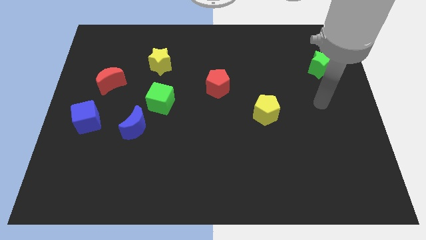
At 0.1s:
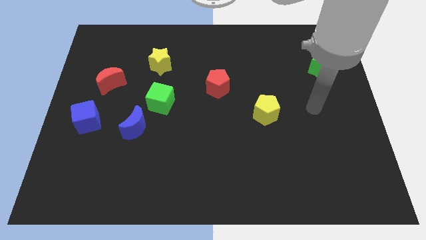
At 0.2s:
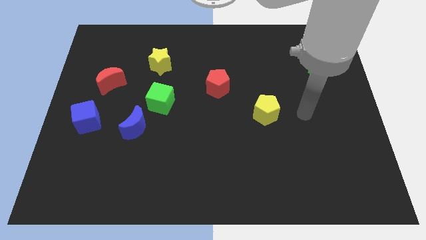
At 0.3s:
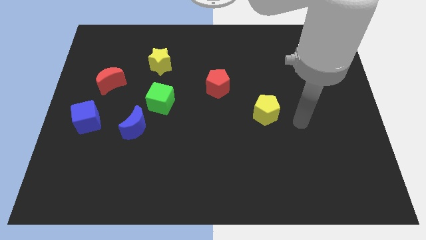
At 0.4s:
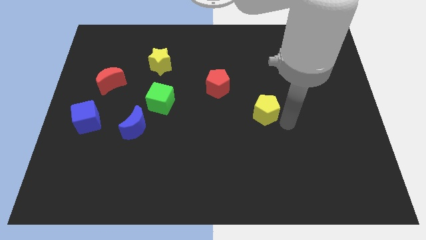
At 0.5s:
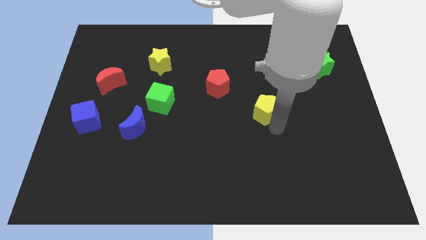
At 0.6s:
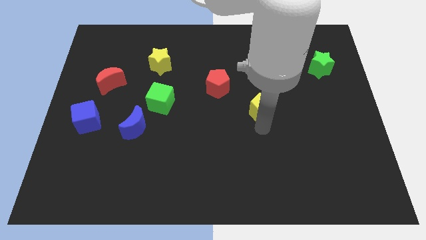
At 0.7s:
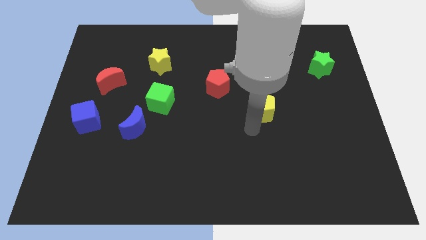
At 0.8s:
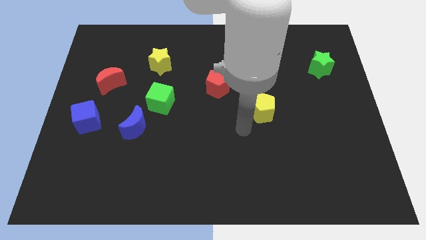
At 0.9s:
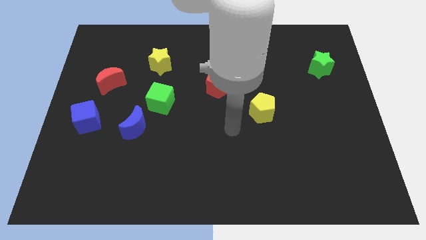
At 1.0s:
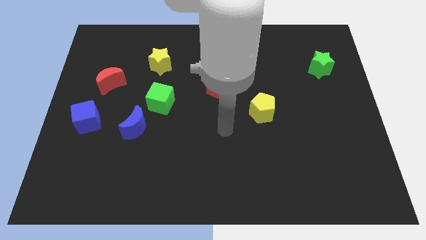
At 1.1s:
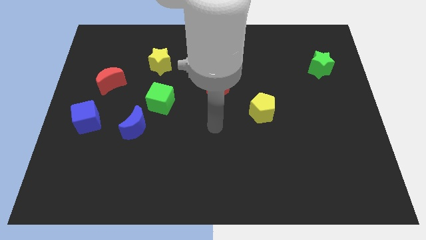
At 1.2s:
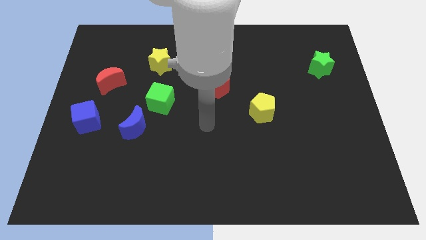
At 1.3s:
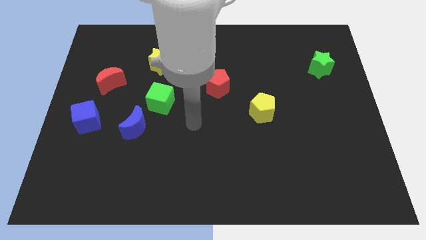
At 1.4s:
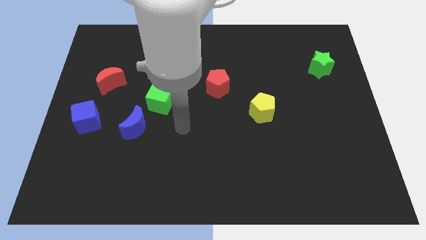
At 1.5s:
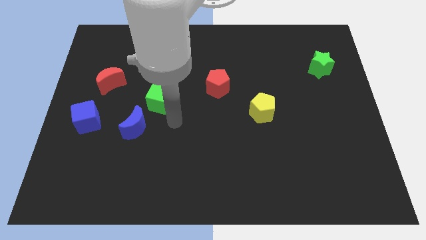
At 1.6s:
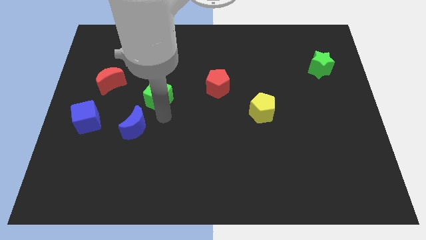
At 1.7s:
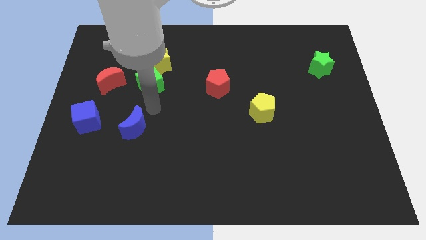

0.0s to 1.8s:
move the blue moon away from the green cube

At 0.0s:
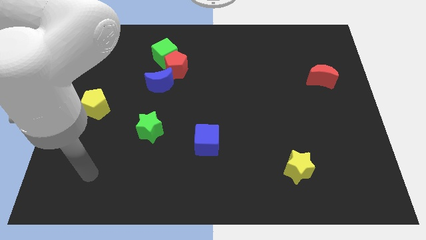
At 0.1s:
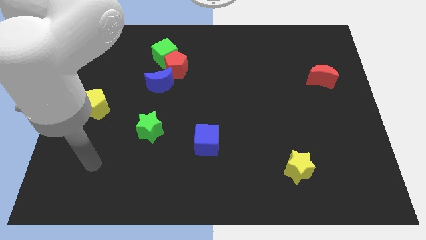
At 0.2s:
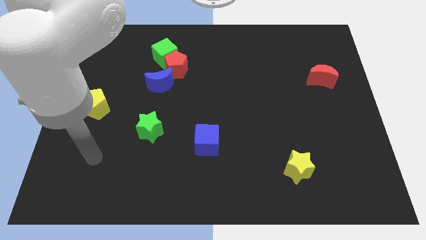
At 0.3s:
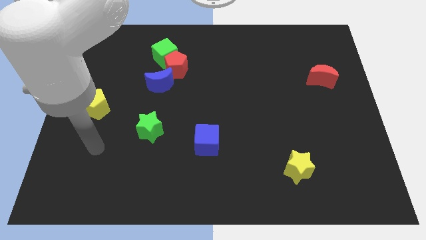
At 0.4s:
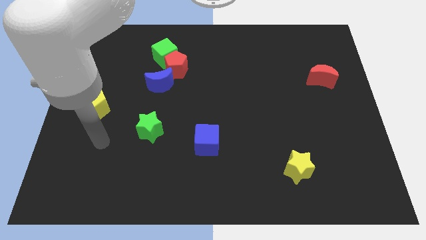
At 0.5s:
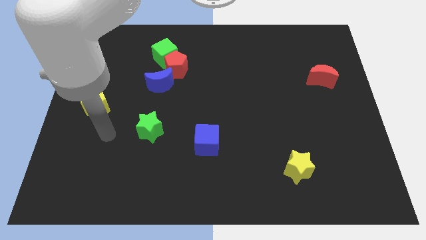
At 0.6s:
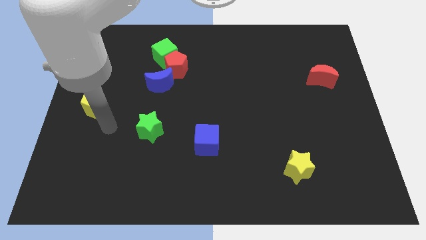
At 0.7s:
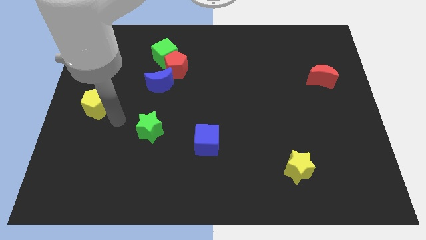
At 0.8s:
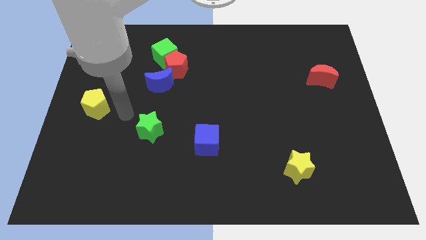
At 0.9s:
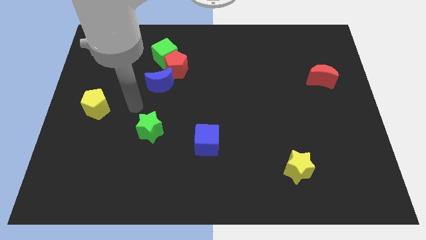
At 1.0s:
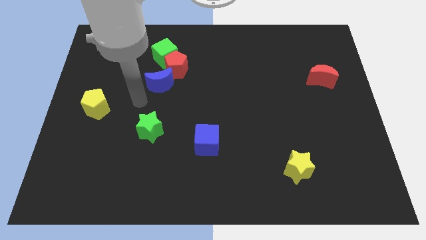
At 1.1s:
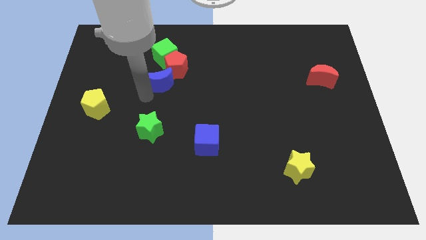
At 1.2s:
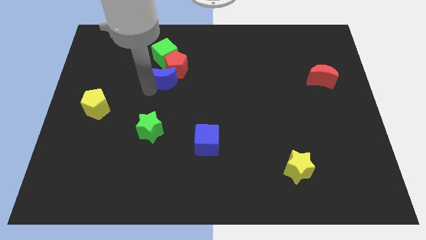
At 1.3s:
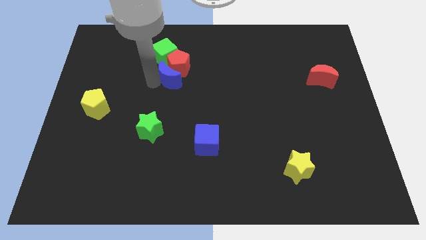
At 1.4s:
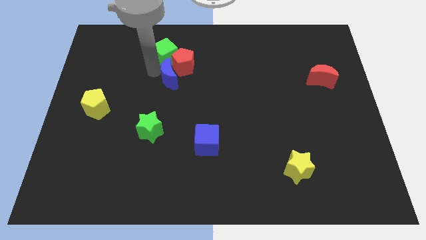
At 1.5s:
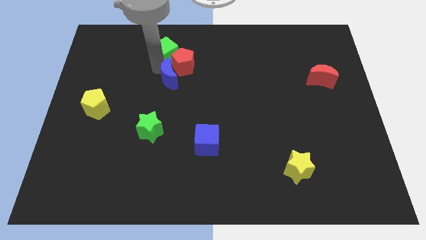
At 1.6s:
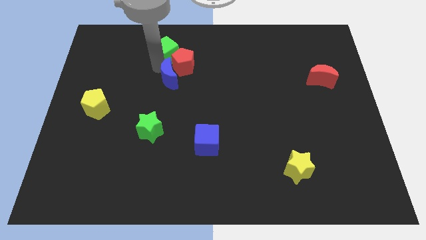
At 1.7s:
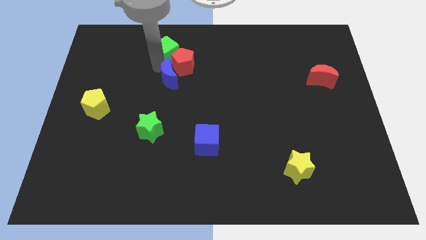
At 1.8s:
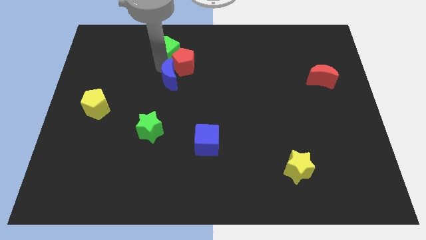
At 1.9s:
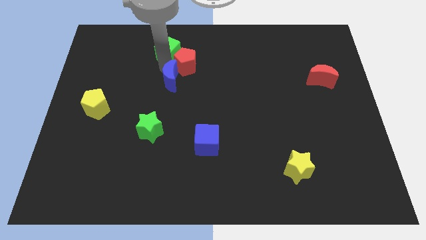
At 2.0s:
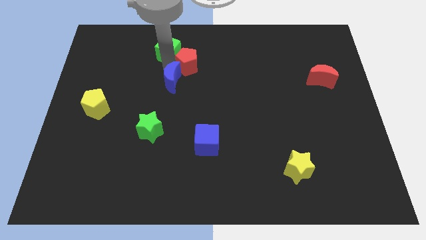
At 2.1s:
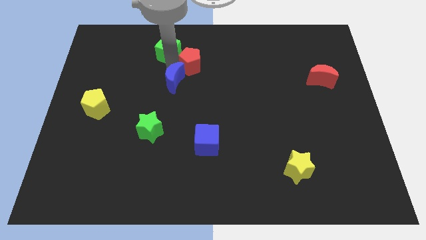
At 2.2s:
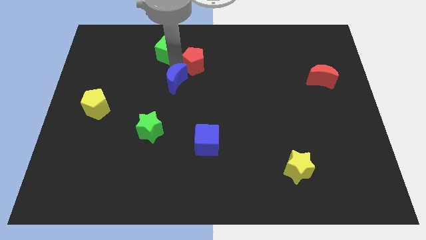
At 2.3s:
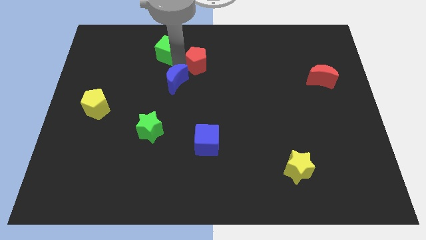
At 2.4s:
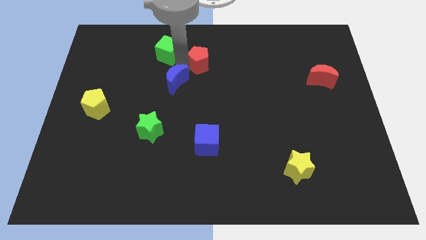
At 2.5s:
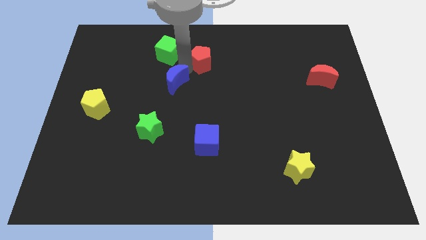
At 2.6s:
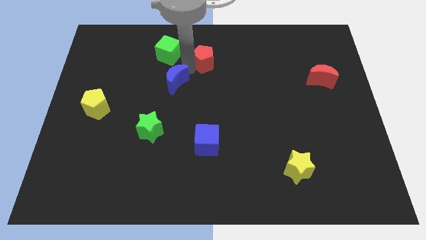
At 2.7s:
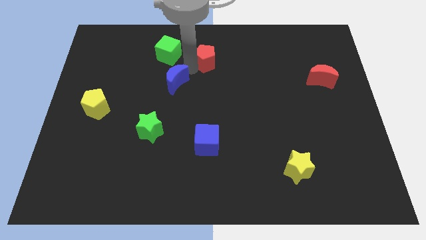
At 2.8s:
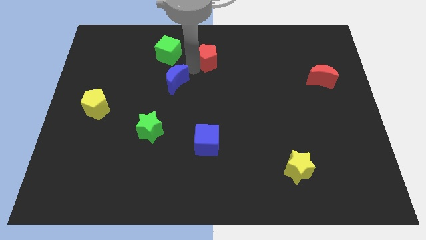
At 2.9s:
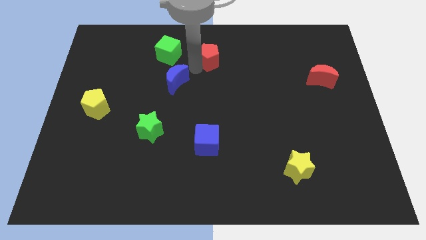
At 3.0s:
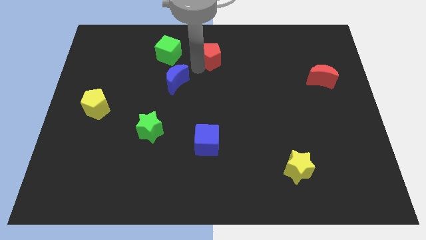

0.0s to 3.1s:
move the red pentagon away from the green cube and blue moon

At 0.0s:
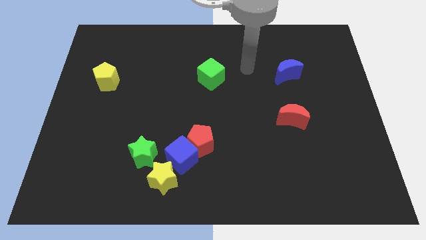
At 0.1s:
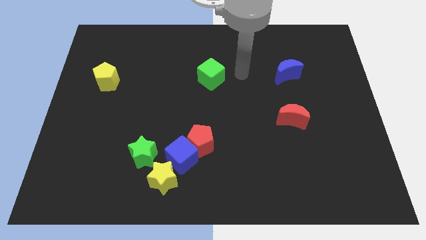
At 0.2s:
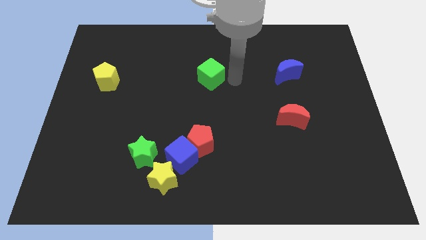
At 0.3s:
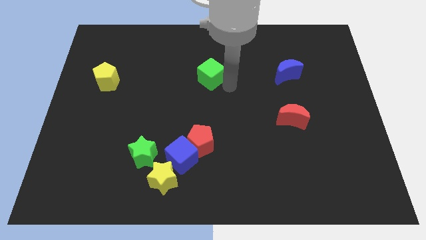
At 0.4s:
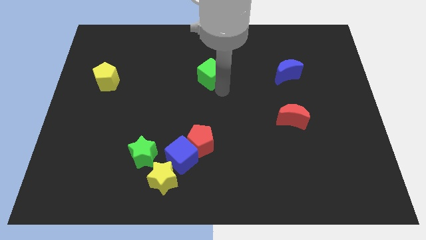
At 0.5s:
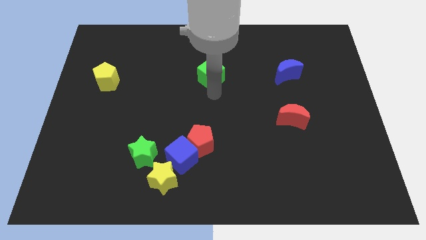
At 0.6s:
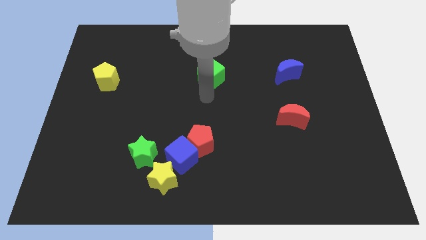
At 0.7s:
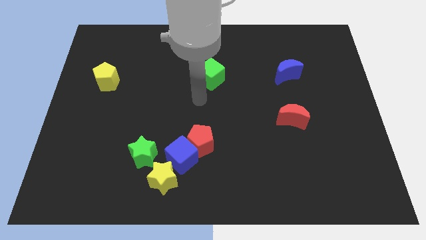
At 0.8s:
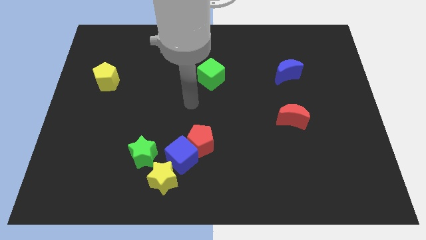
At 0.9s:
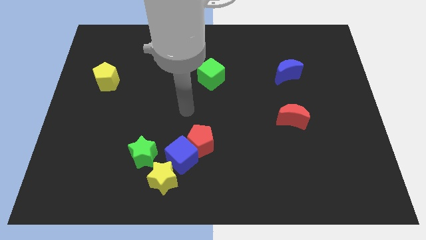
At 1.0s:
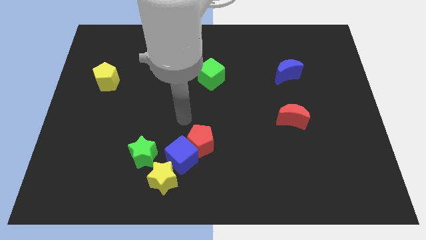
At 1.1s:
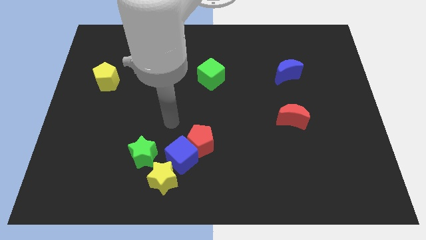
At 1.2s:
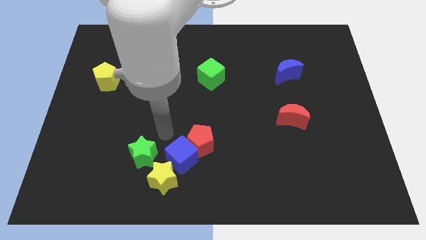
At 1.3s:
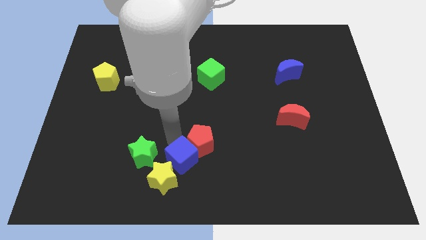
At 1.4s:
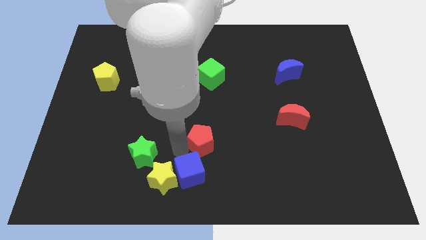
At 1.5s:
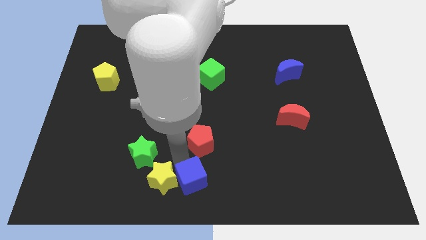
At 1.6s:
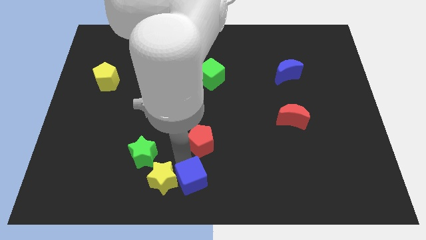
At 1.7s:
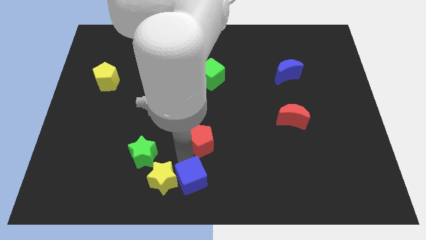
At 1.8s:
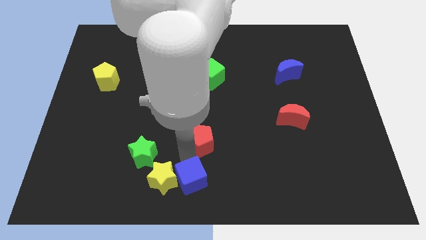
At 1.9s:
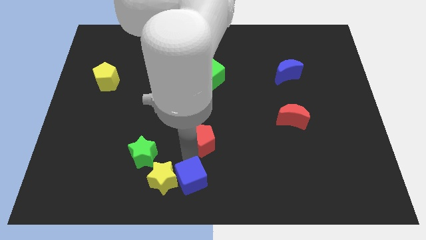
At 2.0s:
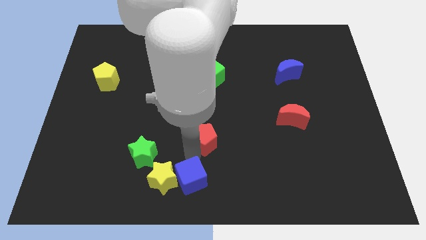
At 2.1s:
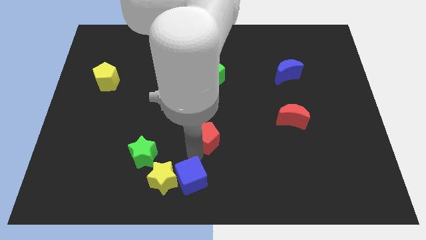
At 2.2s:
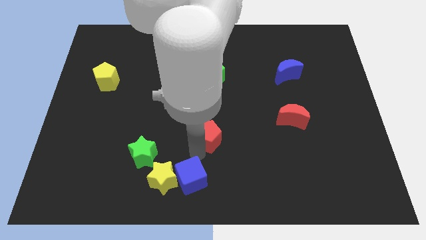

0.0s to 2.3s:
separate the red pentagon from the blue cube

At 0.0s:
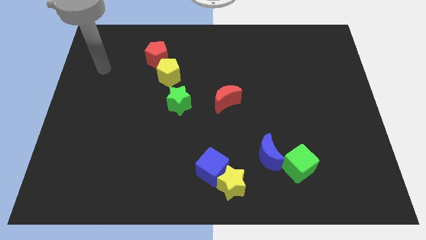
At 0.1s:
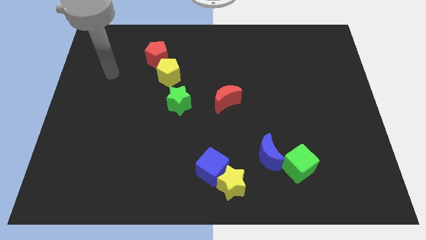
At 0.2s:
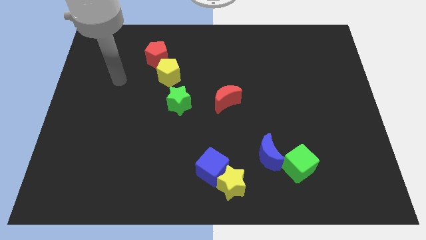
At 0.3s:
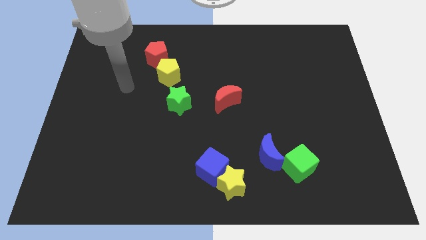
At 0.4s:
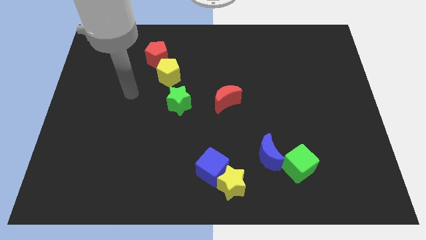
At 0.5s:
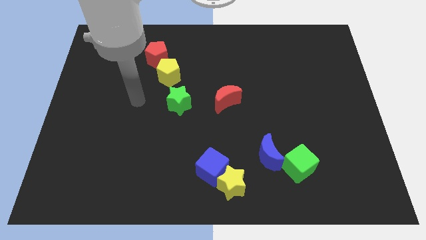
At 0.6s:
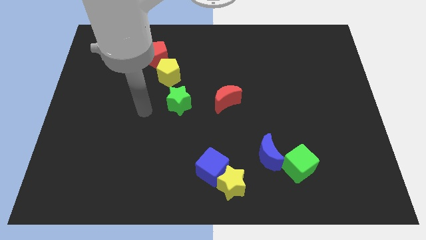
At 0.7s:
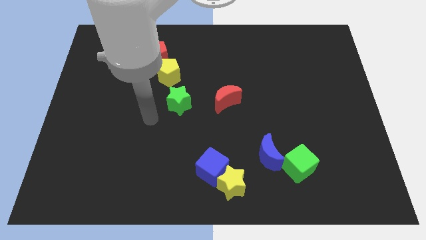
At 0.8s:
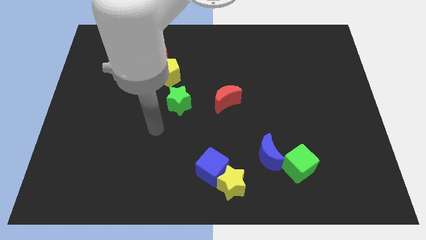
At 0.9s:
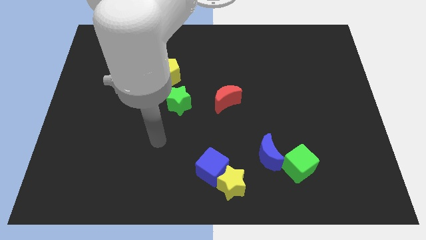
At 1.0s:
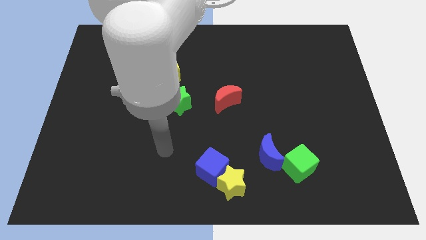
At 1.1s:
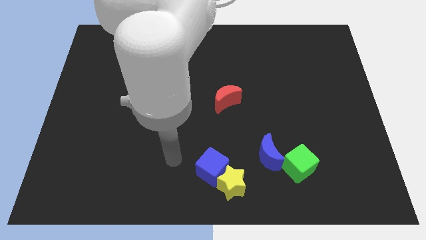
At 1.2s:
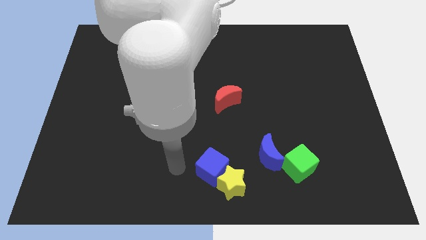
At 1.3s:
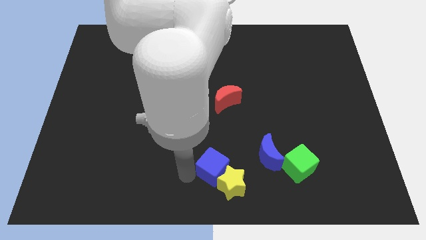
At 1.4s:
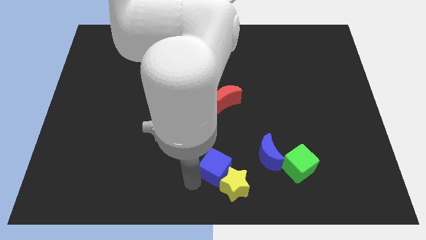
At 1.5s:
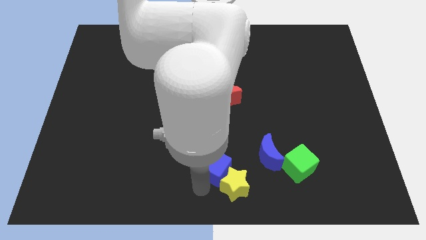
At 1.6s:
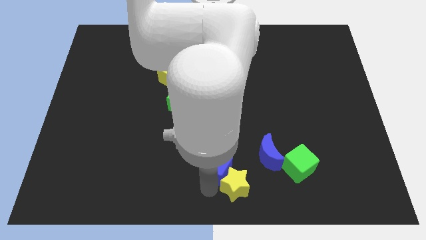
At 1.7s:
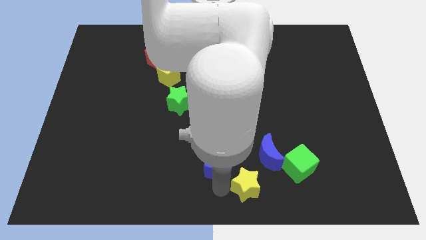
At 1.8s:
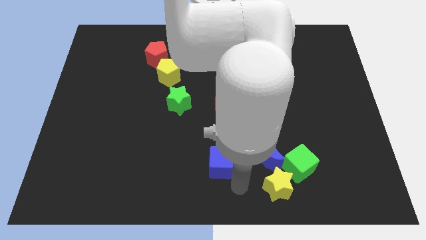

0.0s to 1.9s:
pull the blue cube apart from the yellow star

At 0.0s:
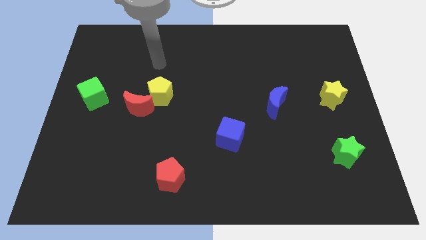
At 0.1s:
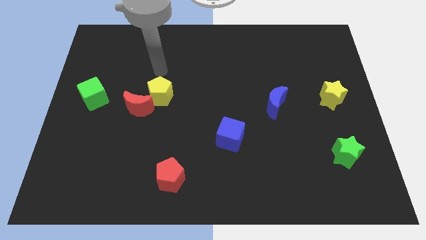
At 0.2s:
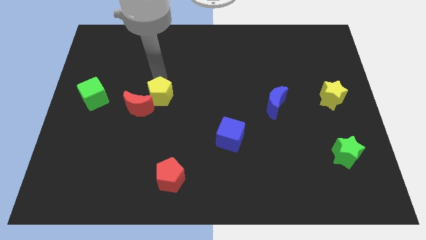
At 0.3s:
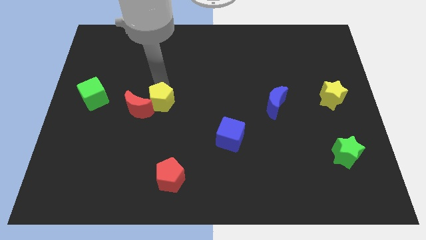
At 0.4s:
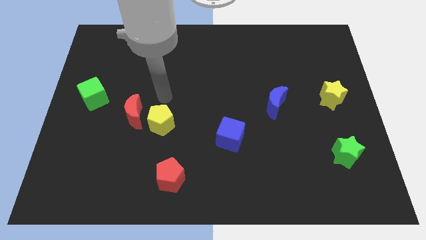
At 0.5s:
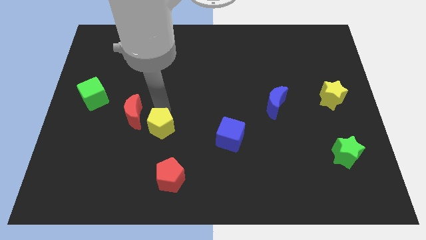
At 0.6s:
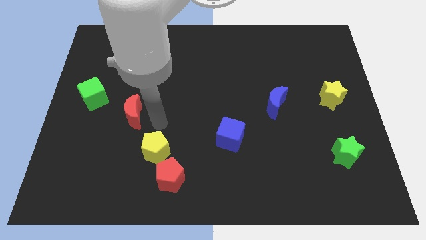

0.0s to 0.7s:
move the red moon away from the yellow pentagon
